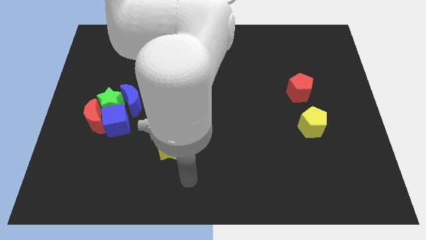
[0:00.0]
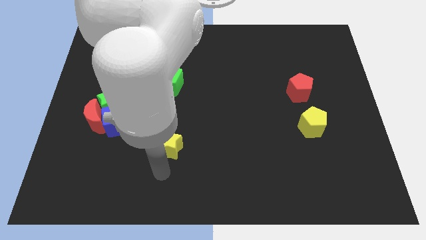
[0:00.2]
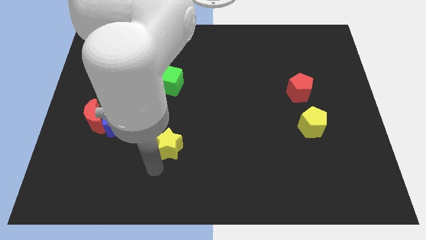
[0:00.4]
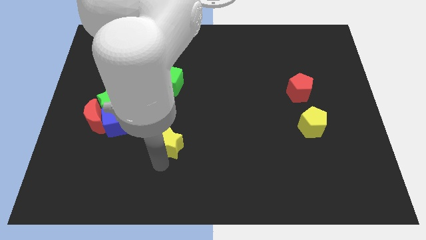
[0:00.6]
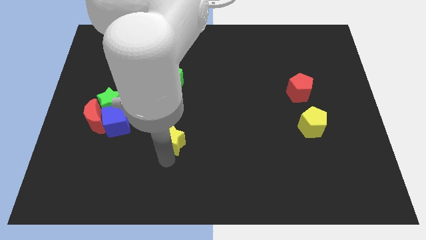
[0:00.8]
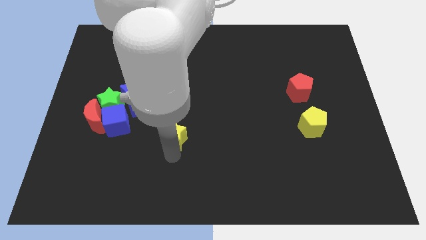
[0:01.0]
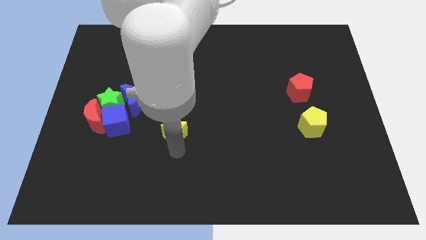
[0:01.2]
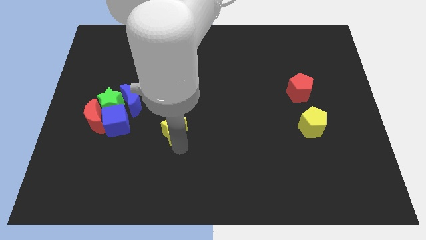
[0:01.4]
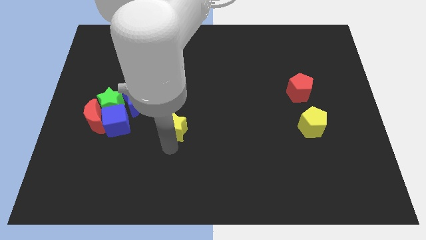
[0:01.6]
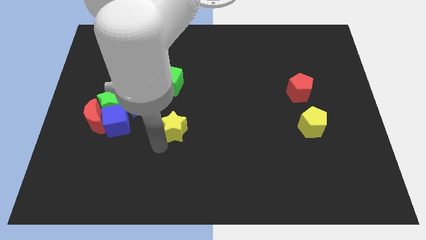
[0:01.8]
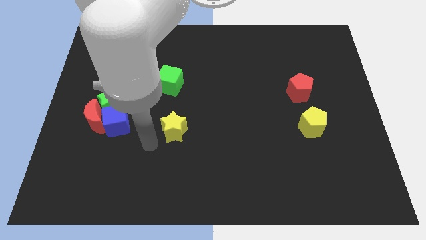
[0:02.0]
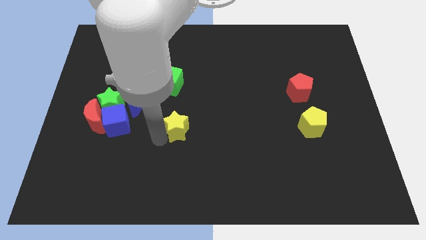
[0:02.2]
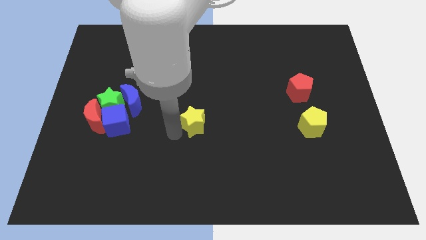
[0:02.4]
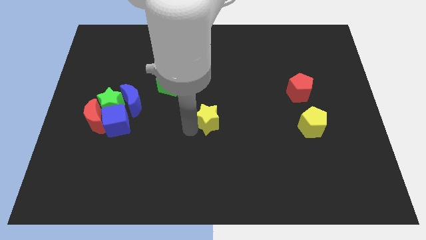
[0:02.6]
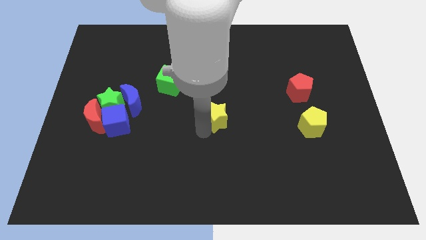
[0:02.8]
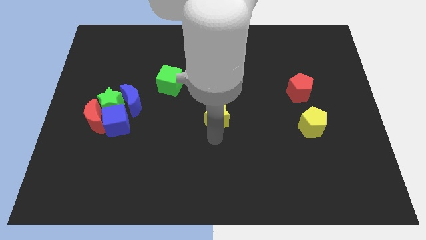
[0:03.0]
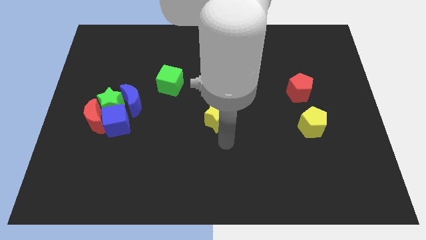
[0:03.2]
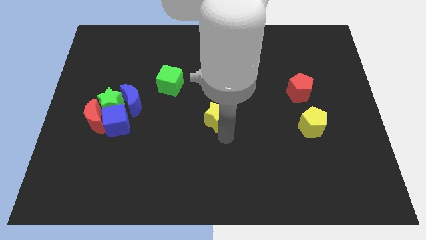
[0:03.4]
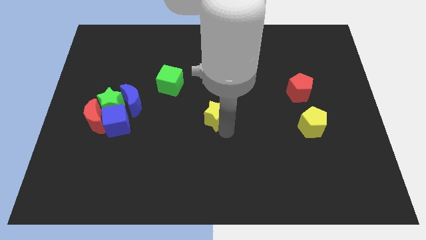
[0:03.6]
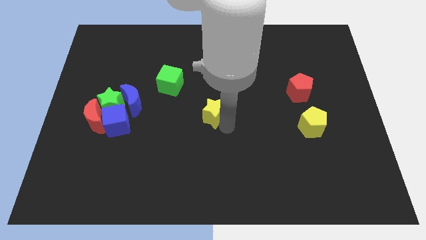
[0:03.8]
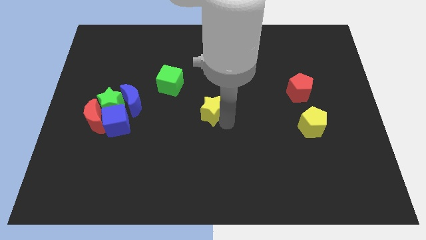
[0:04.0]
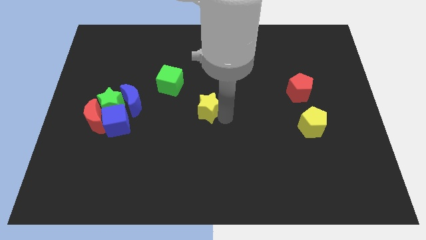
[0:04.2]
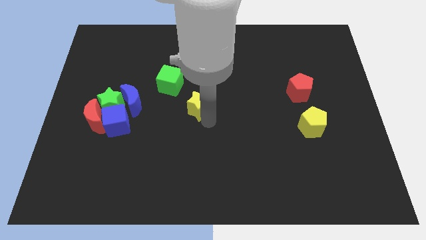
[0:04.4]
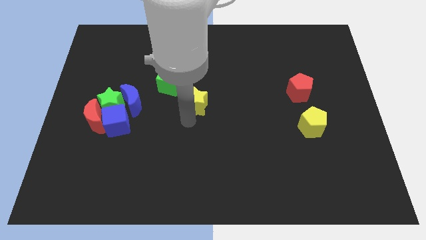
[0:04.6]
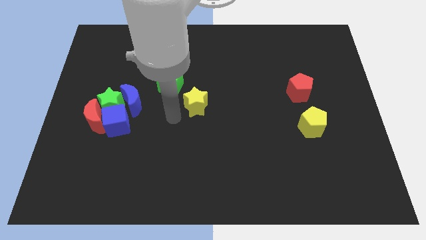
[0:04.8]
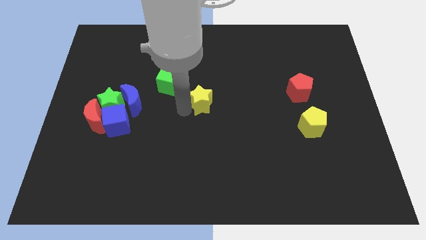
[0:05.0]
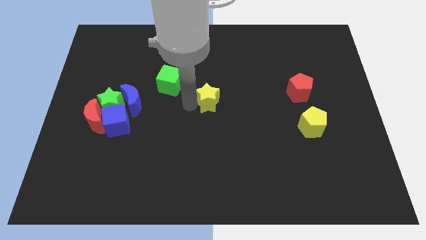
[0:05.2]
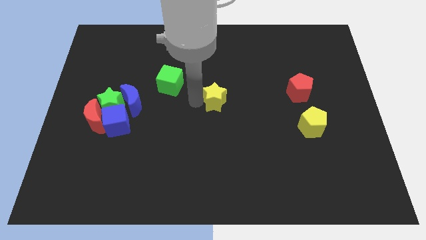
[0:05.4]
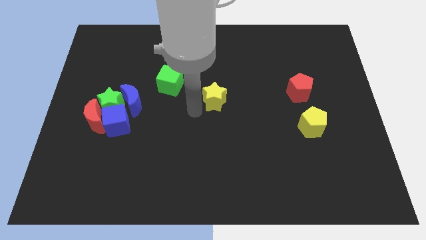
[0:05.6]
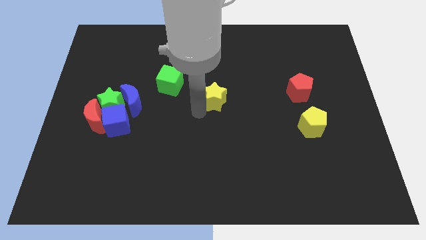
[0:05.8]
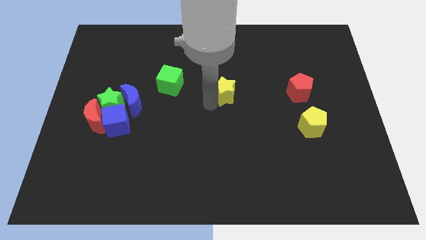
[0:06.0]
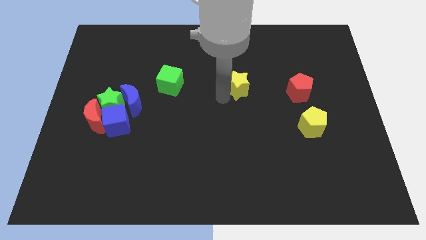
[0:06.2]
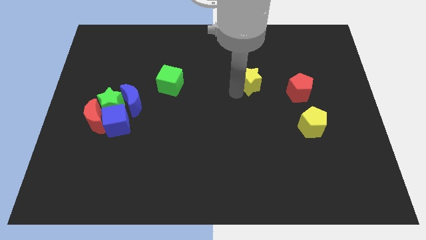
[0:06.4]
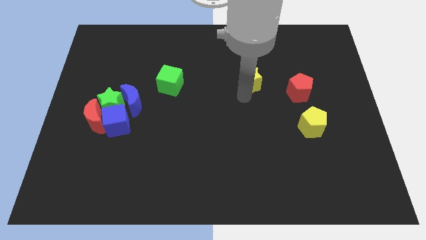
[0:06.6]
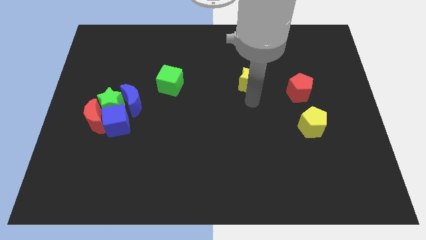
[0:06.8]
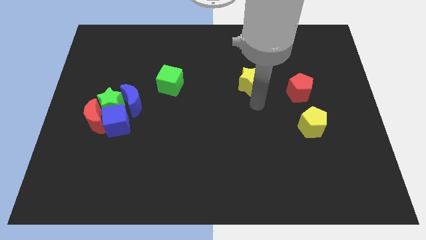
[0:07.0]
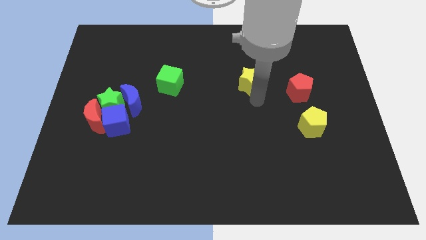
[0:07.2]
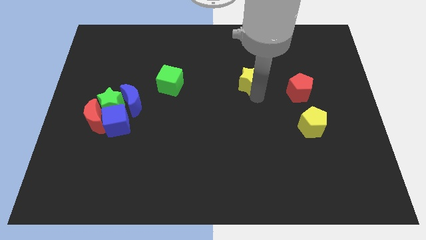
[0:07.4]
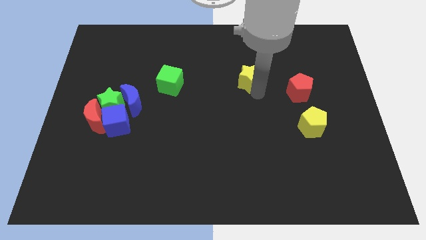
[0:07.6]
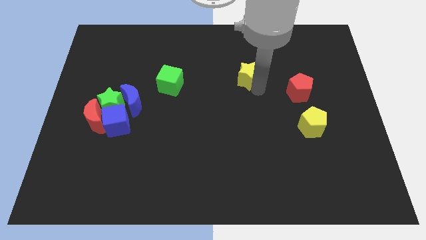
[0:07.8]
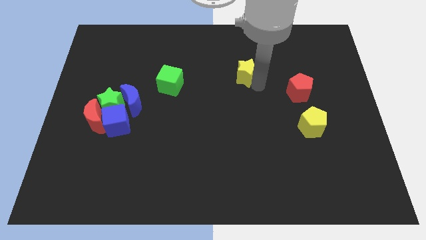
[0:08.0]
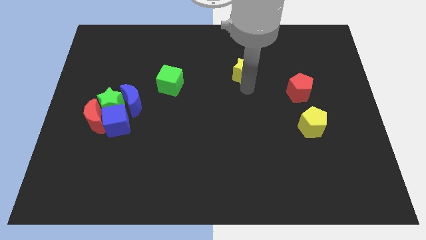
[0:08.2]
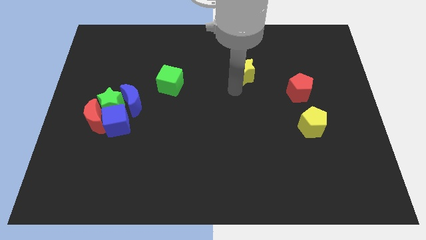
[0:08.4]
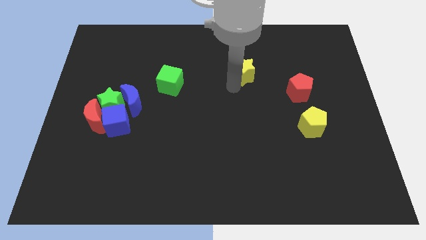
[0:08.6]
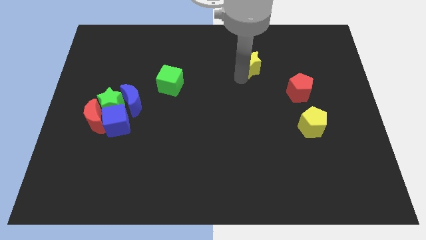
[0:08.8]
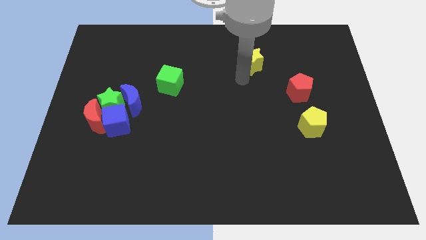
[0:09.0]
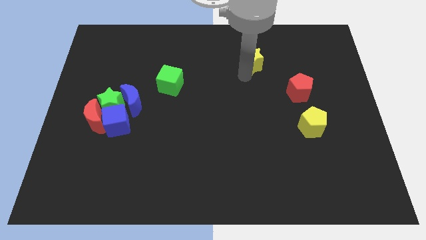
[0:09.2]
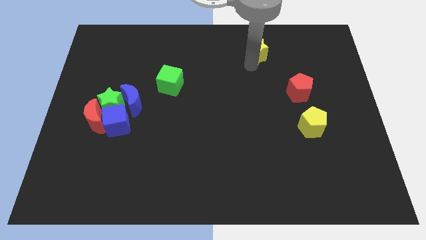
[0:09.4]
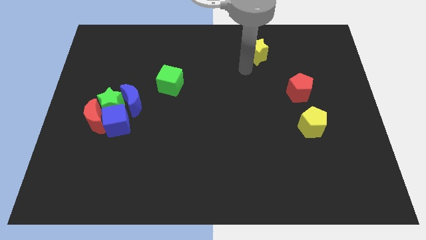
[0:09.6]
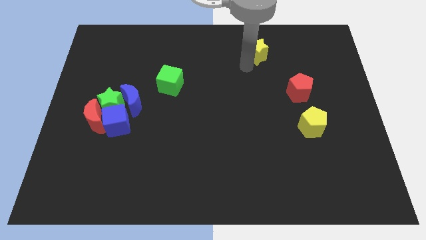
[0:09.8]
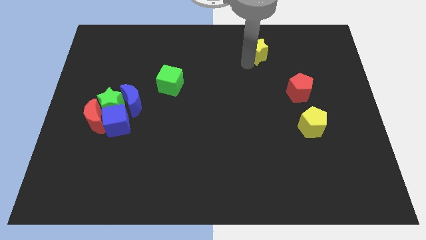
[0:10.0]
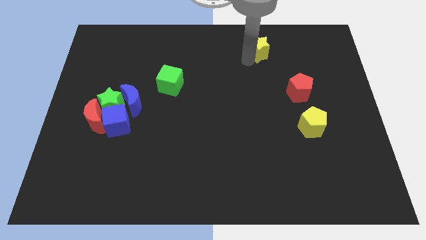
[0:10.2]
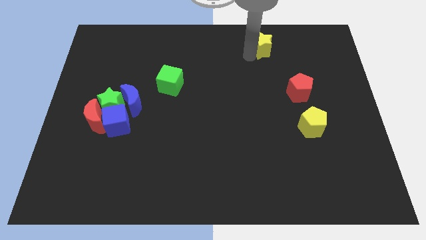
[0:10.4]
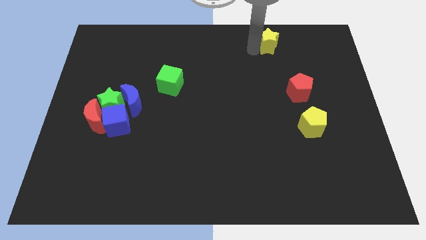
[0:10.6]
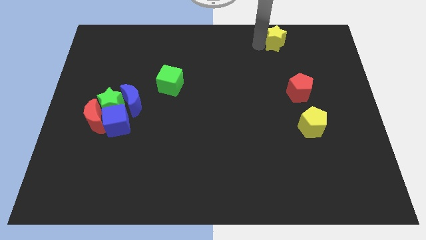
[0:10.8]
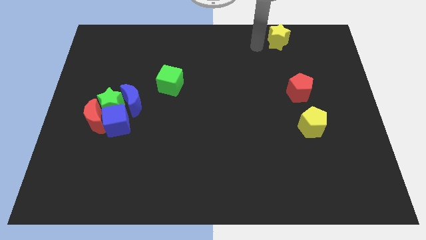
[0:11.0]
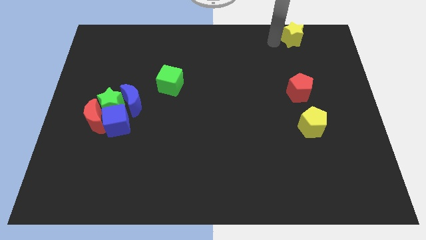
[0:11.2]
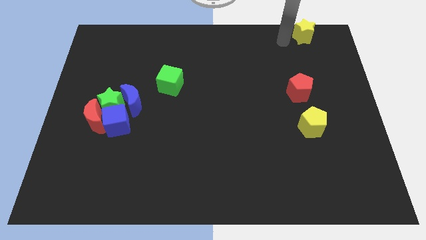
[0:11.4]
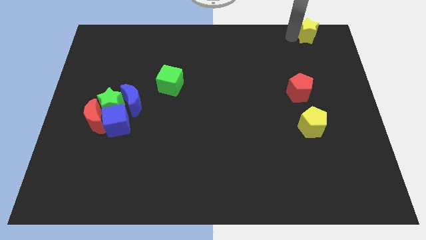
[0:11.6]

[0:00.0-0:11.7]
push the yellow star to the top right of the board

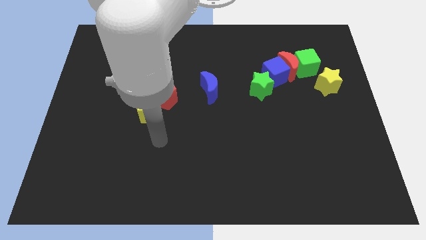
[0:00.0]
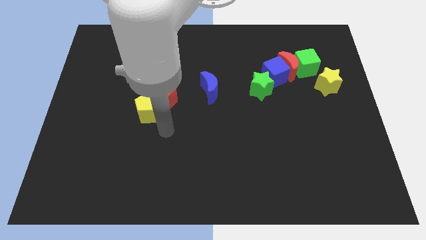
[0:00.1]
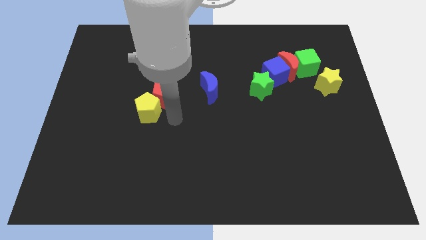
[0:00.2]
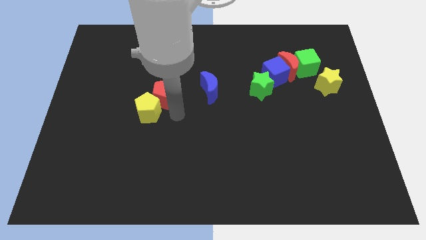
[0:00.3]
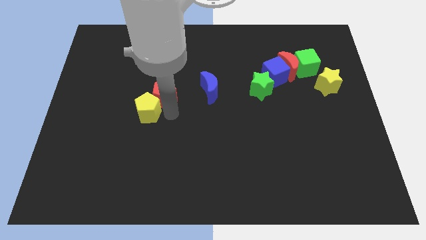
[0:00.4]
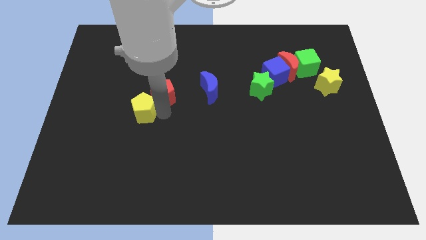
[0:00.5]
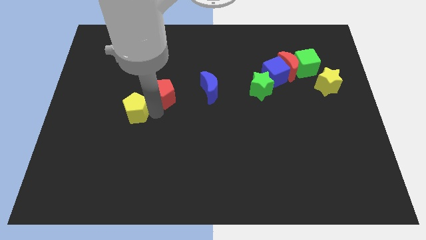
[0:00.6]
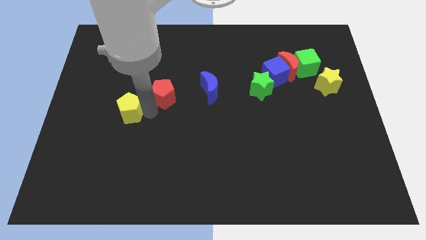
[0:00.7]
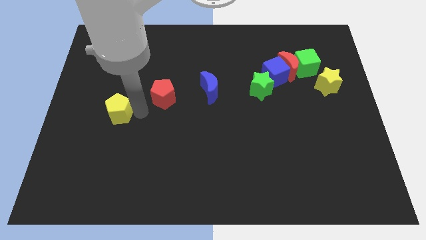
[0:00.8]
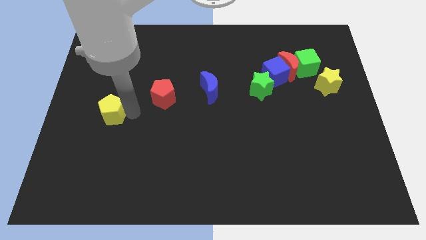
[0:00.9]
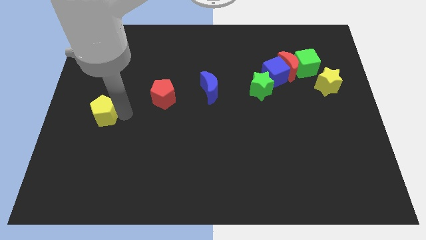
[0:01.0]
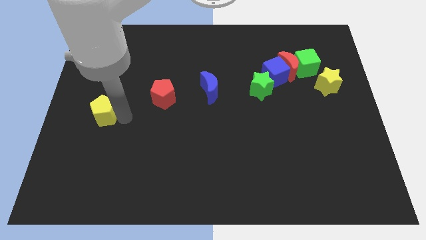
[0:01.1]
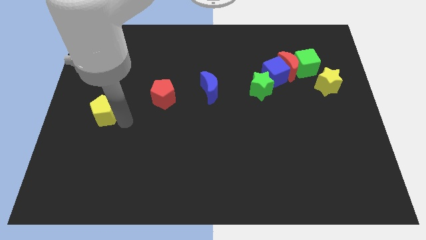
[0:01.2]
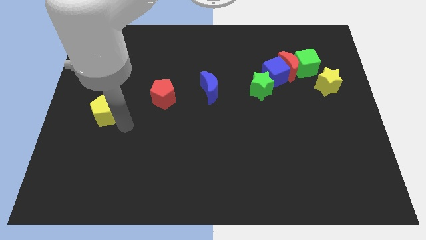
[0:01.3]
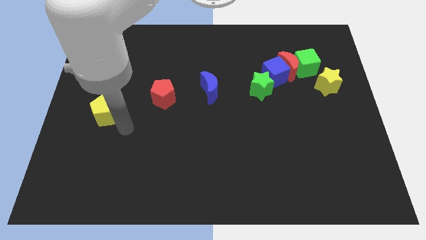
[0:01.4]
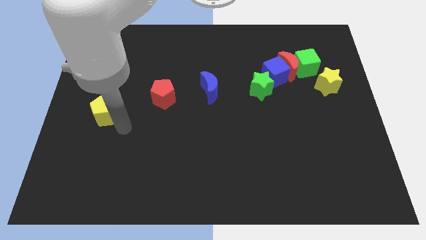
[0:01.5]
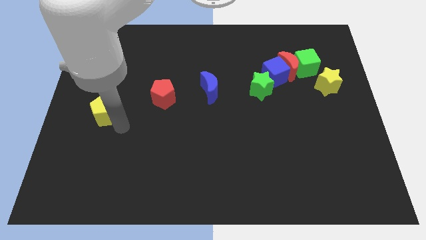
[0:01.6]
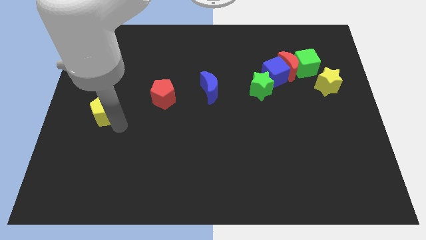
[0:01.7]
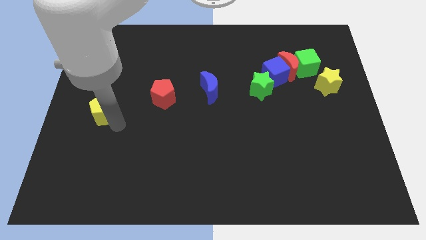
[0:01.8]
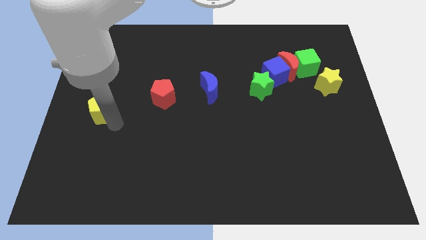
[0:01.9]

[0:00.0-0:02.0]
push the yellow pentagon to the left side of the board
